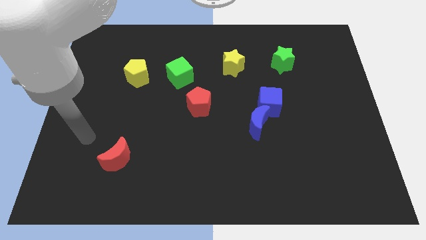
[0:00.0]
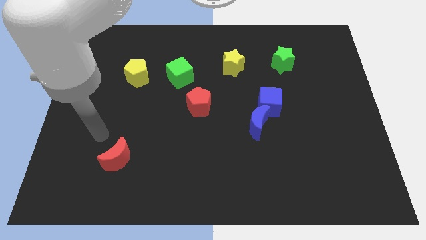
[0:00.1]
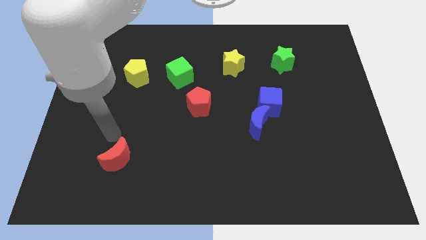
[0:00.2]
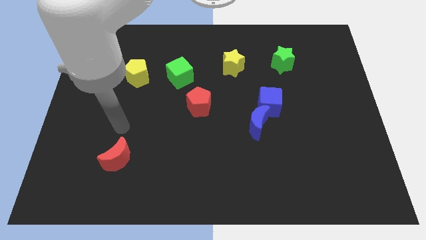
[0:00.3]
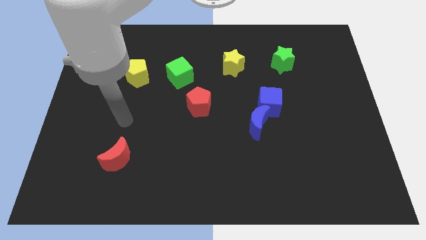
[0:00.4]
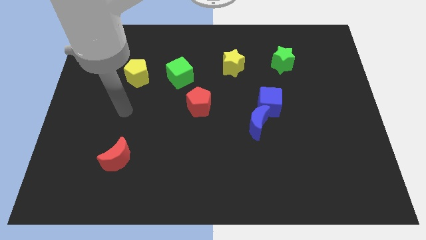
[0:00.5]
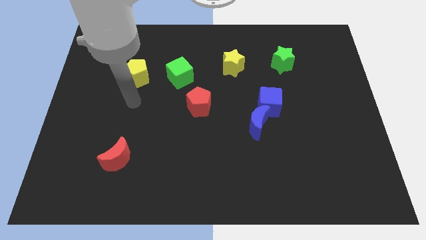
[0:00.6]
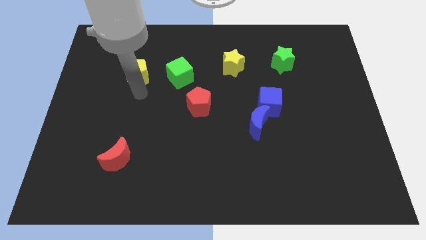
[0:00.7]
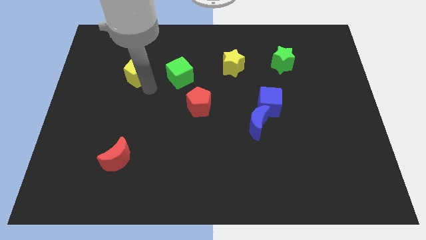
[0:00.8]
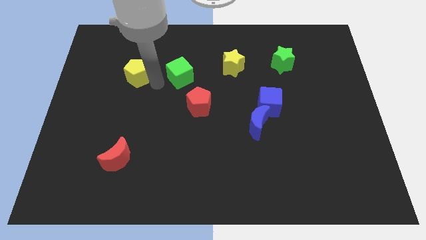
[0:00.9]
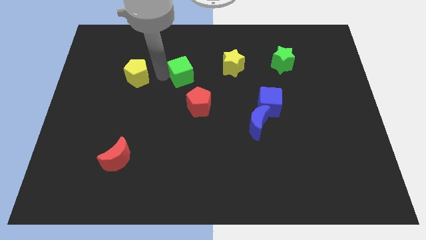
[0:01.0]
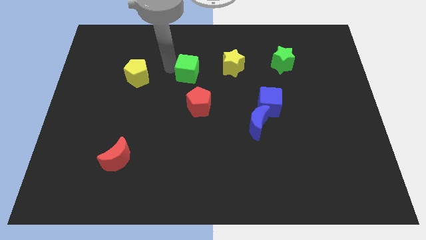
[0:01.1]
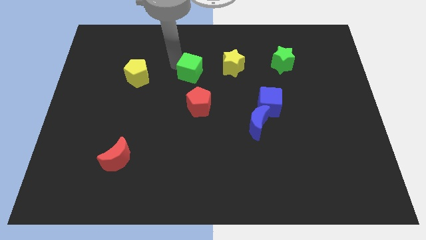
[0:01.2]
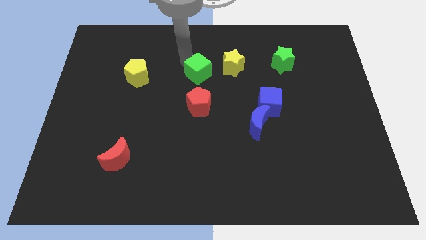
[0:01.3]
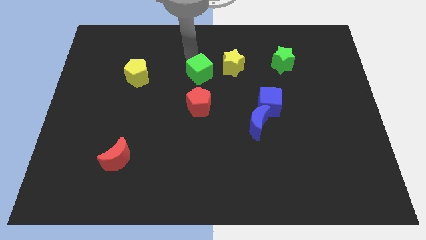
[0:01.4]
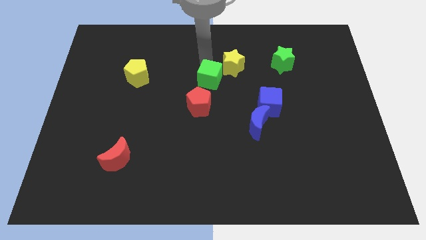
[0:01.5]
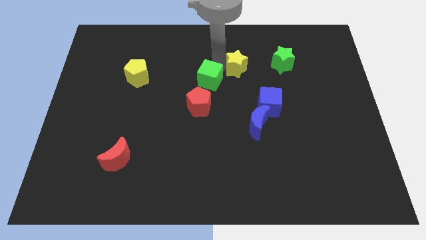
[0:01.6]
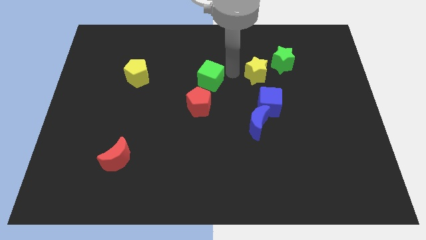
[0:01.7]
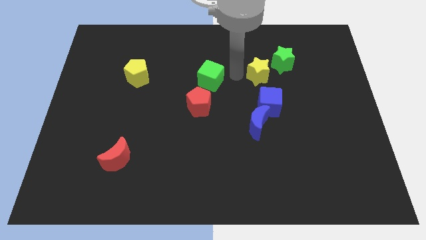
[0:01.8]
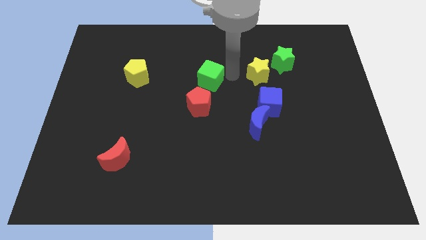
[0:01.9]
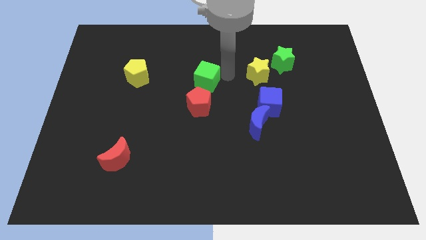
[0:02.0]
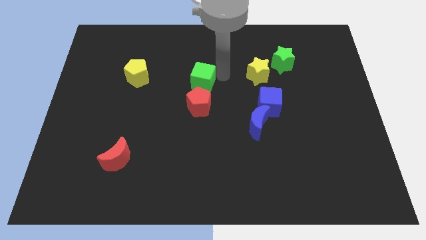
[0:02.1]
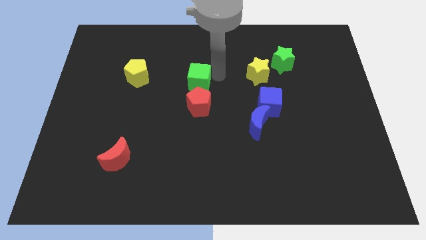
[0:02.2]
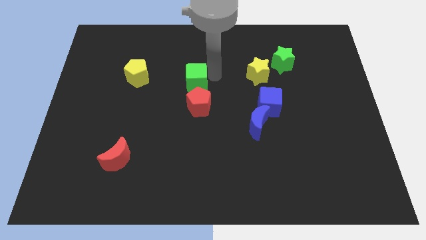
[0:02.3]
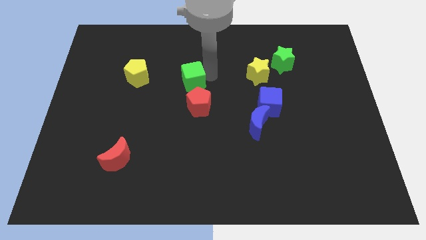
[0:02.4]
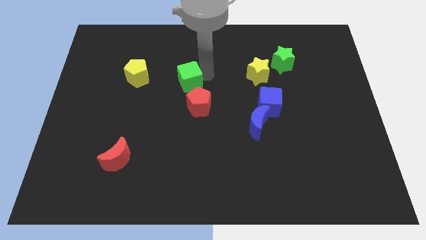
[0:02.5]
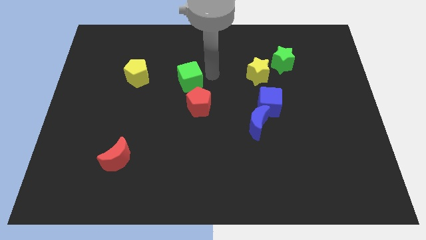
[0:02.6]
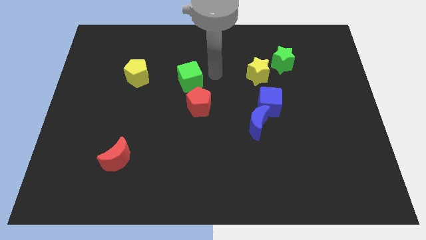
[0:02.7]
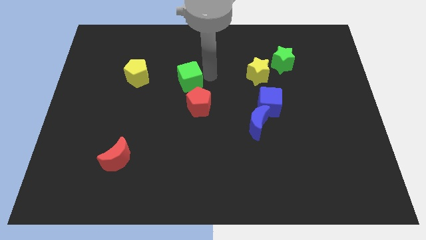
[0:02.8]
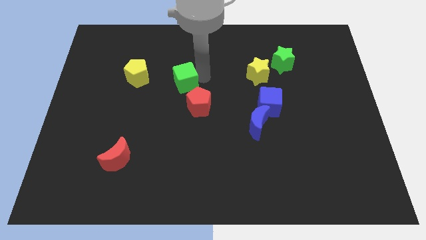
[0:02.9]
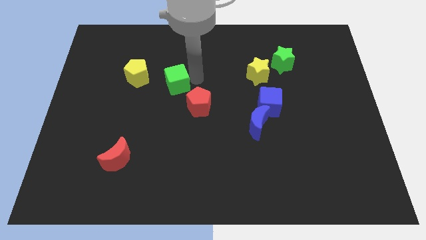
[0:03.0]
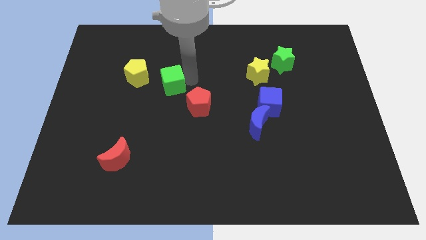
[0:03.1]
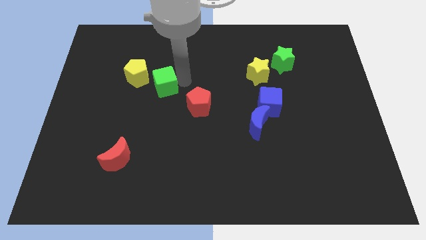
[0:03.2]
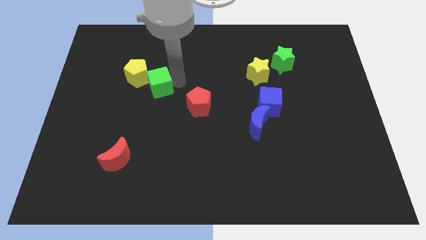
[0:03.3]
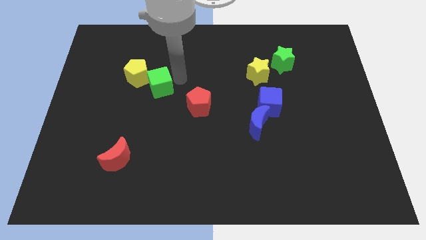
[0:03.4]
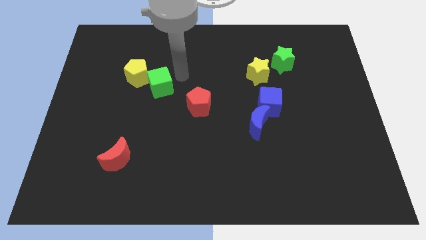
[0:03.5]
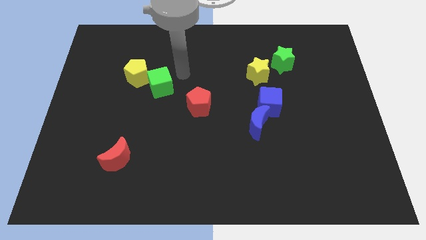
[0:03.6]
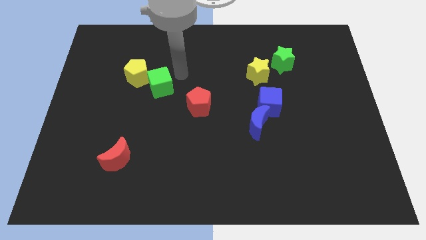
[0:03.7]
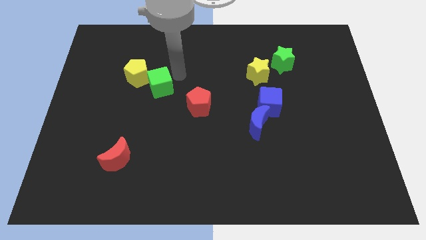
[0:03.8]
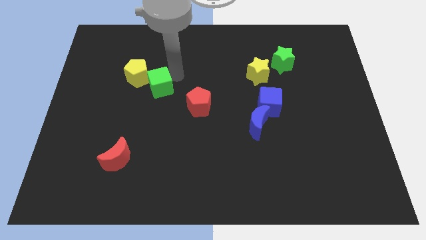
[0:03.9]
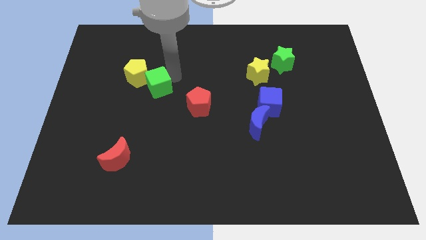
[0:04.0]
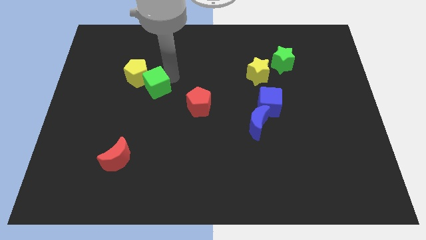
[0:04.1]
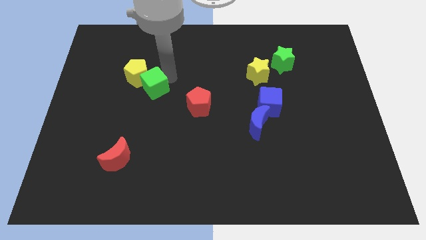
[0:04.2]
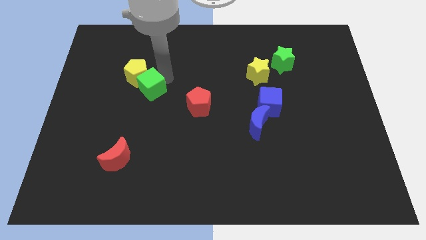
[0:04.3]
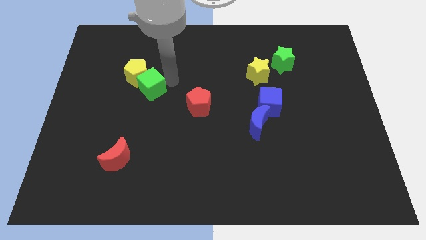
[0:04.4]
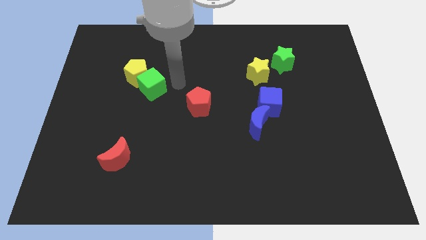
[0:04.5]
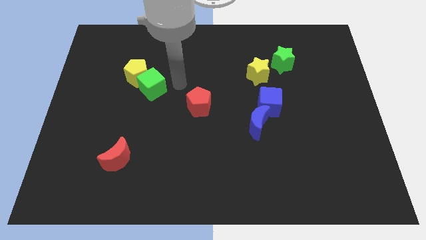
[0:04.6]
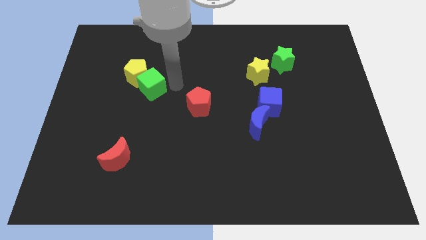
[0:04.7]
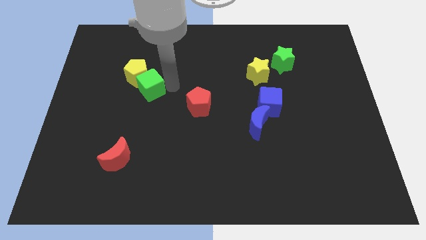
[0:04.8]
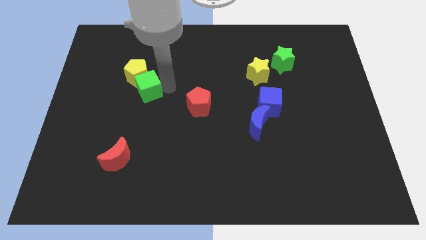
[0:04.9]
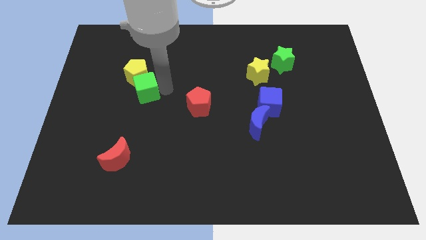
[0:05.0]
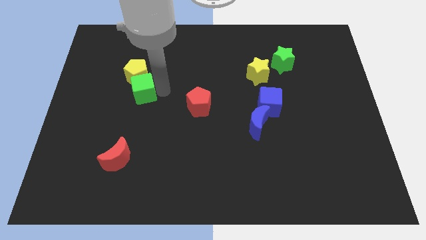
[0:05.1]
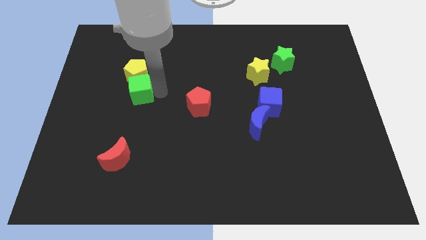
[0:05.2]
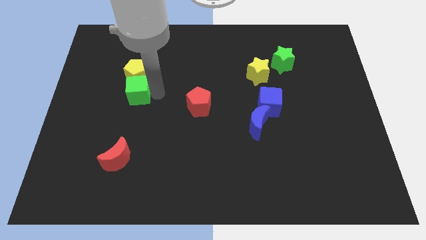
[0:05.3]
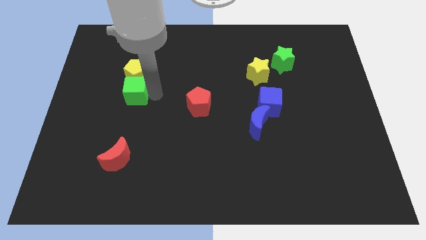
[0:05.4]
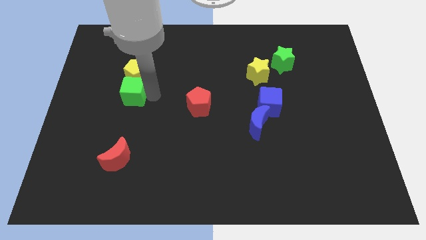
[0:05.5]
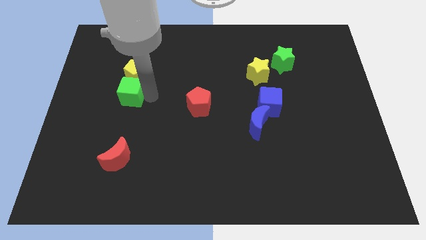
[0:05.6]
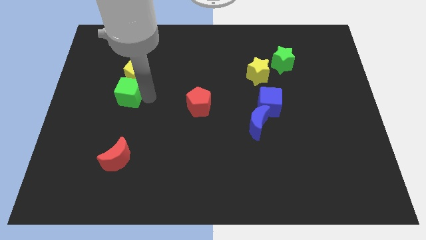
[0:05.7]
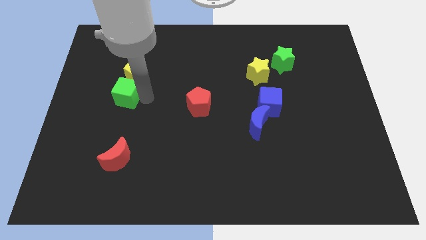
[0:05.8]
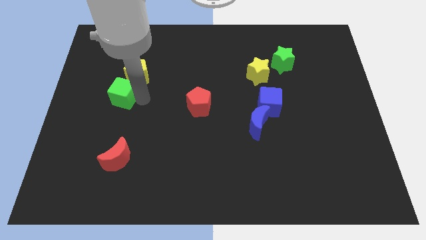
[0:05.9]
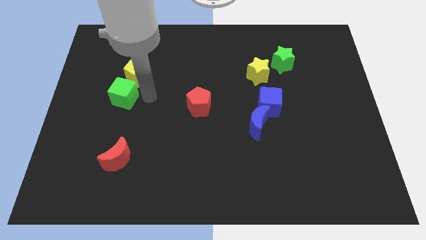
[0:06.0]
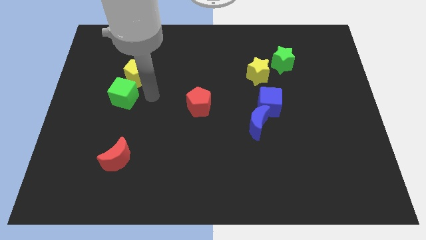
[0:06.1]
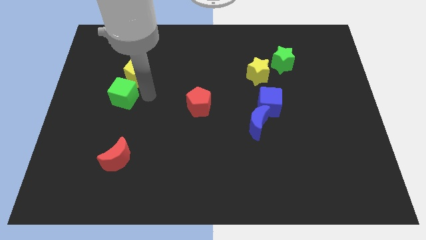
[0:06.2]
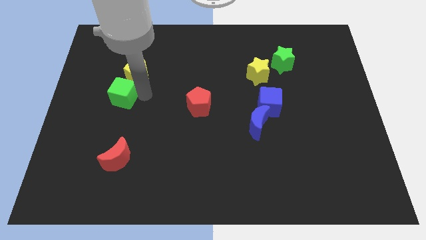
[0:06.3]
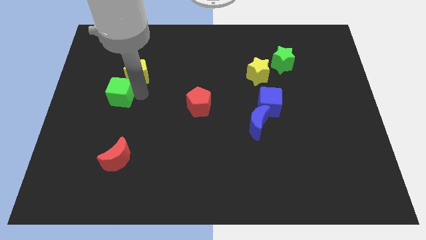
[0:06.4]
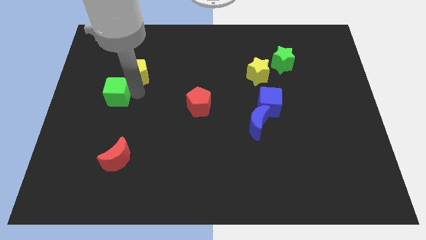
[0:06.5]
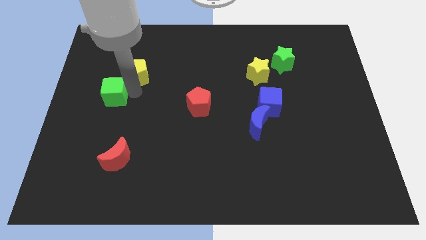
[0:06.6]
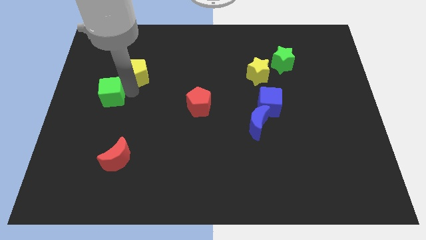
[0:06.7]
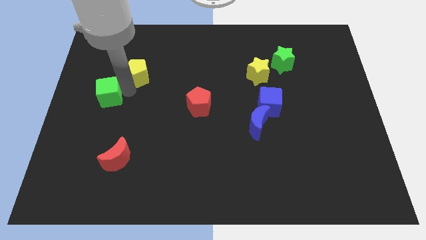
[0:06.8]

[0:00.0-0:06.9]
slide the green cube to the left side

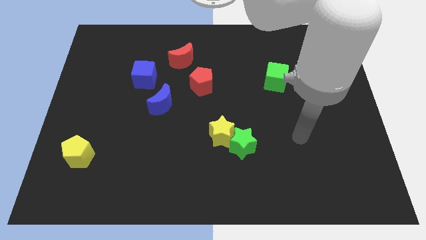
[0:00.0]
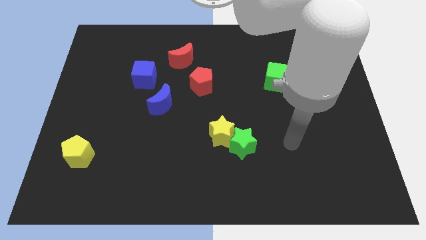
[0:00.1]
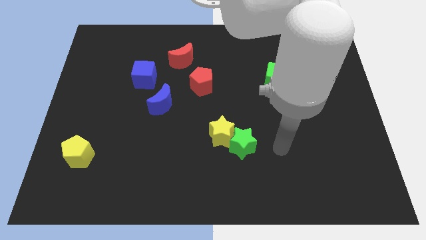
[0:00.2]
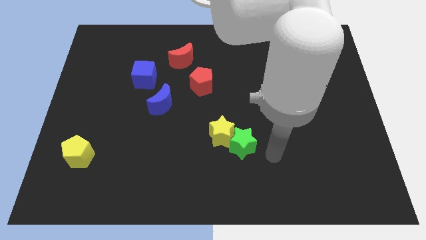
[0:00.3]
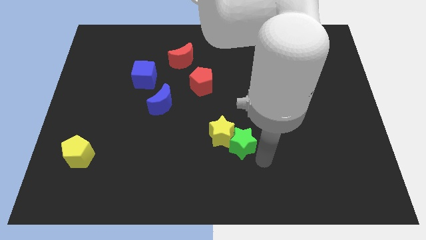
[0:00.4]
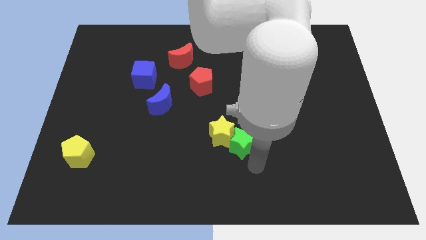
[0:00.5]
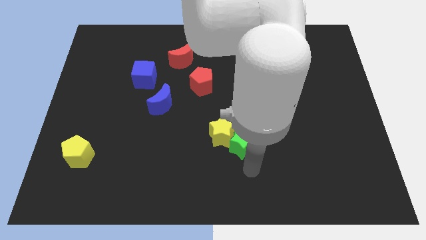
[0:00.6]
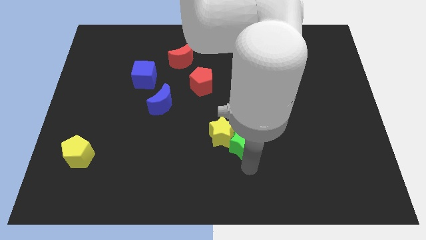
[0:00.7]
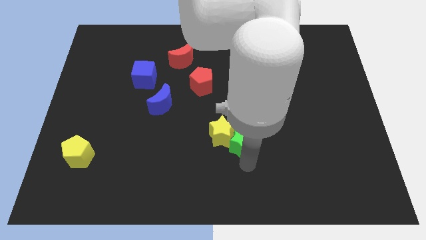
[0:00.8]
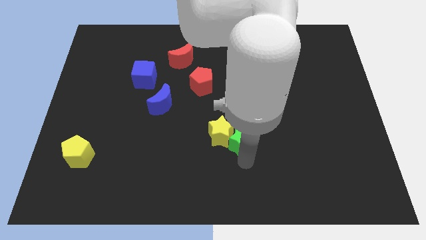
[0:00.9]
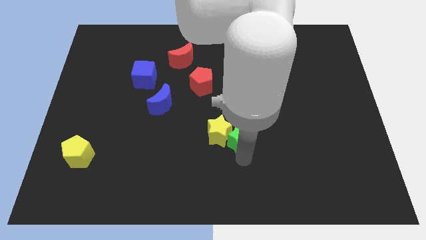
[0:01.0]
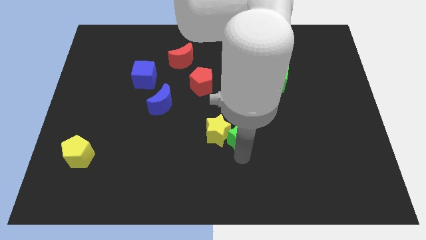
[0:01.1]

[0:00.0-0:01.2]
move the green star to the center of the board
